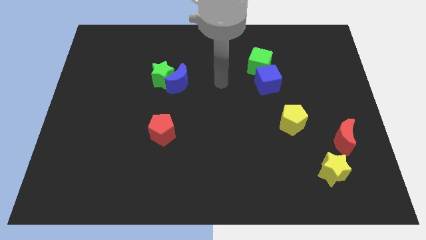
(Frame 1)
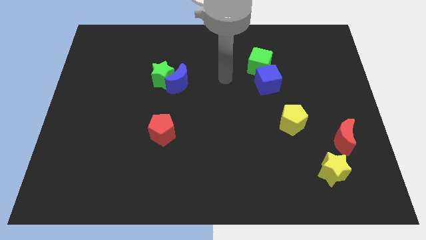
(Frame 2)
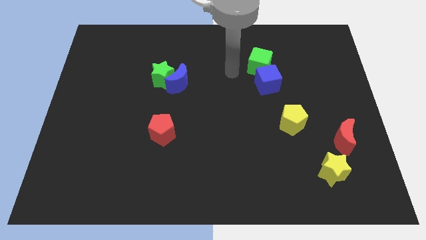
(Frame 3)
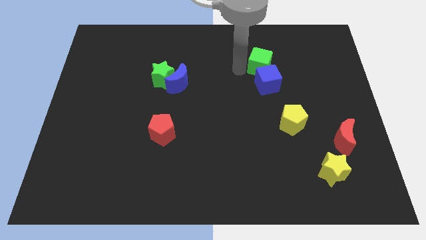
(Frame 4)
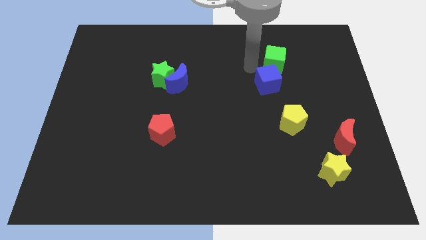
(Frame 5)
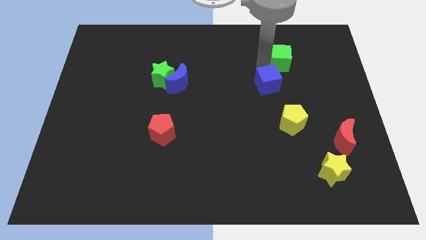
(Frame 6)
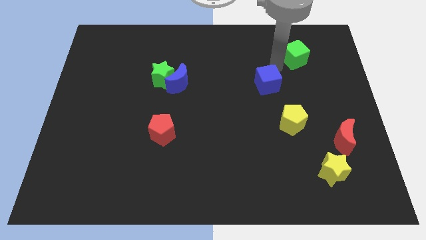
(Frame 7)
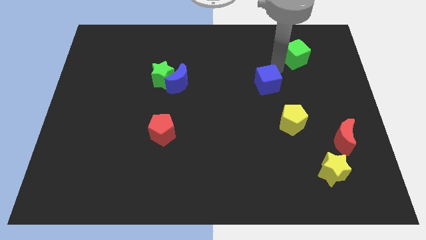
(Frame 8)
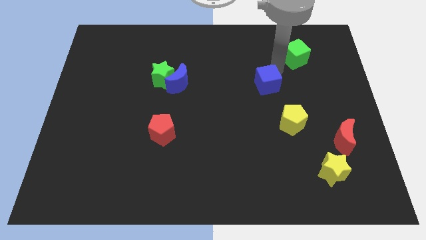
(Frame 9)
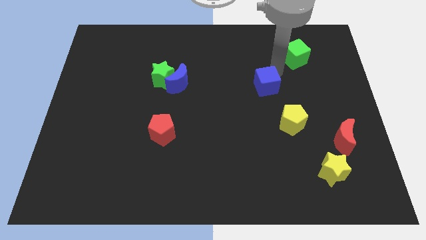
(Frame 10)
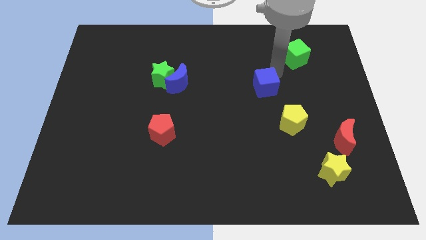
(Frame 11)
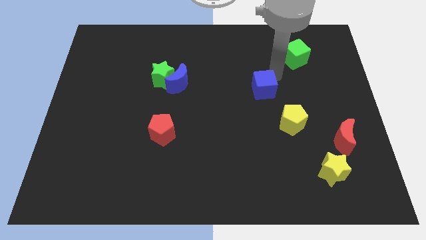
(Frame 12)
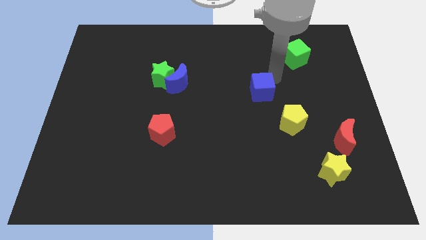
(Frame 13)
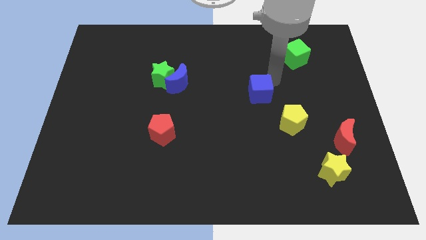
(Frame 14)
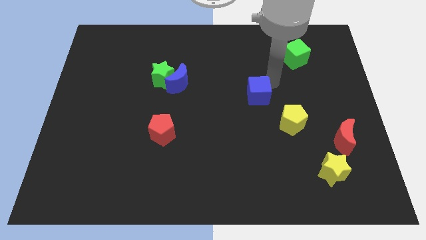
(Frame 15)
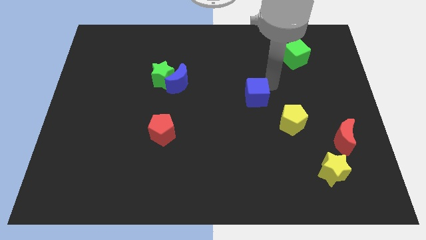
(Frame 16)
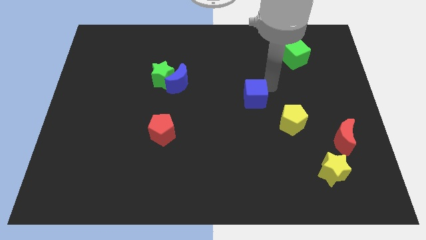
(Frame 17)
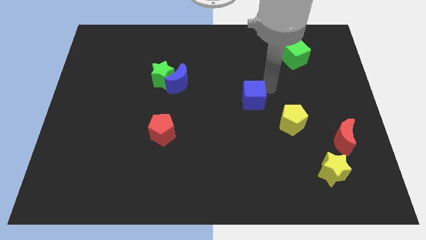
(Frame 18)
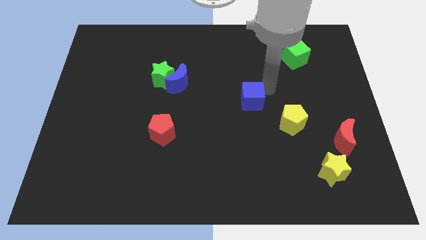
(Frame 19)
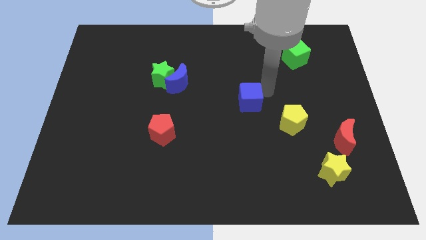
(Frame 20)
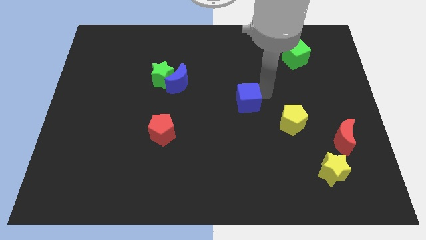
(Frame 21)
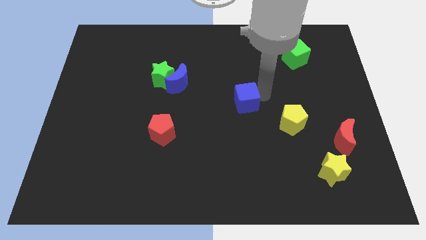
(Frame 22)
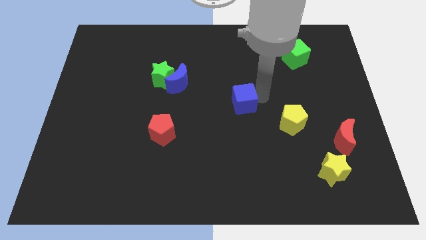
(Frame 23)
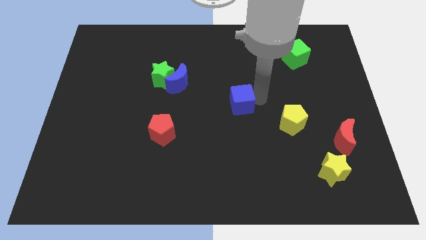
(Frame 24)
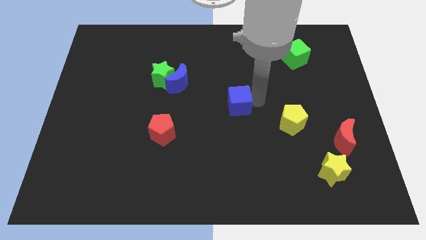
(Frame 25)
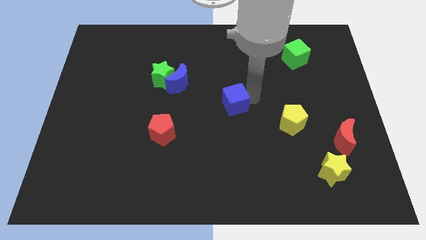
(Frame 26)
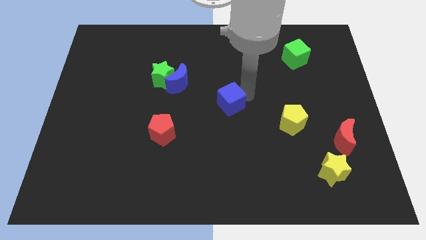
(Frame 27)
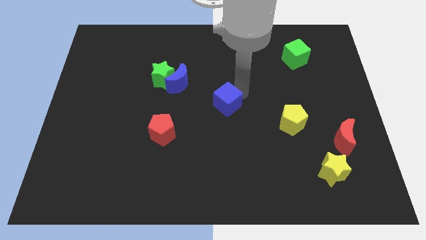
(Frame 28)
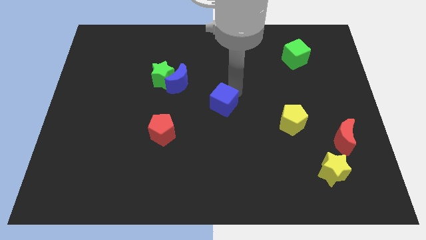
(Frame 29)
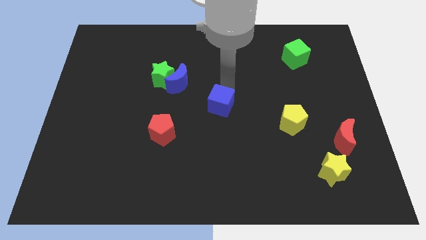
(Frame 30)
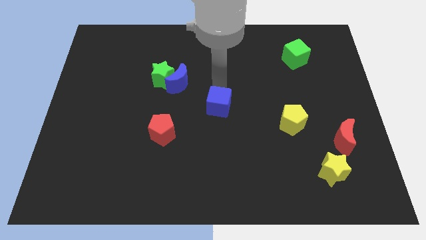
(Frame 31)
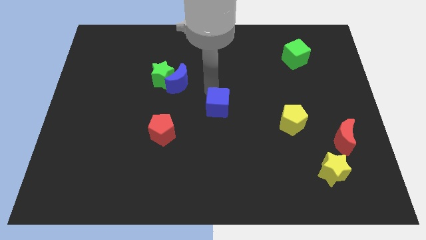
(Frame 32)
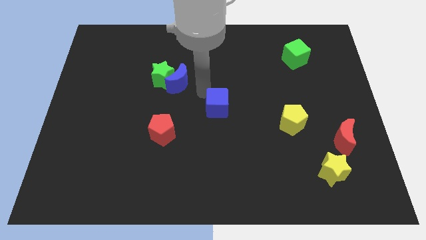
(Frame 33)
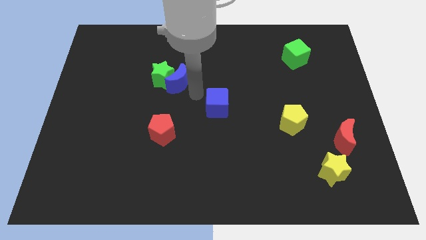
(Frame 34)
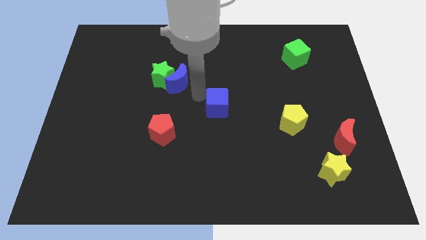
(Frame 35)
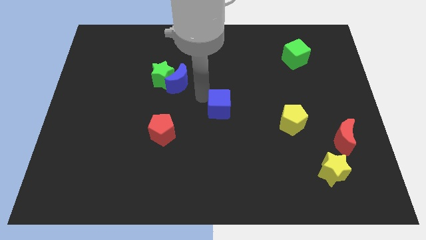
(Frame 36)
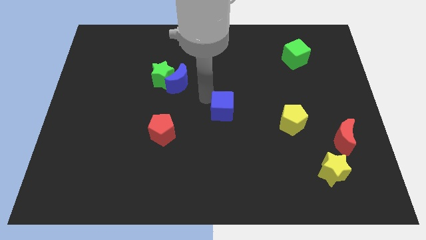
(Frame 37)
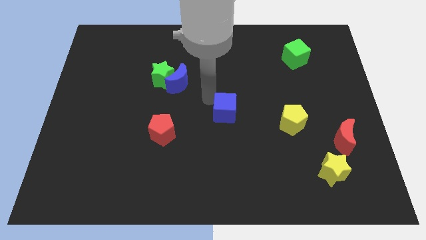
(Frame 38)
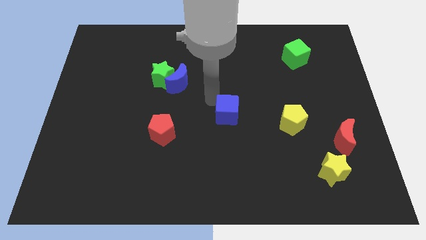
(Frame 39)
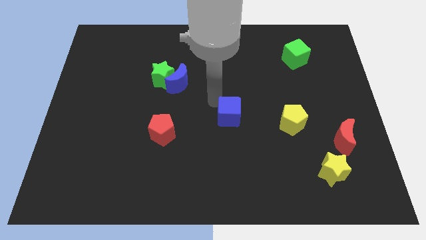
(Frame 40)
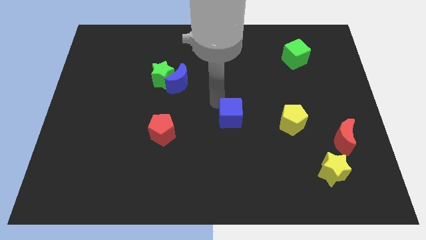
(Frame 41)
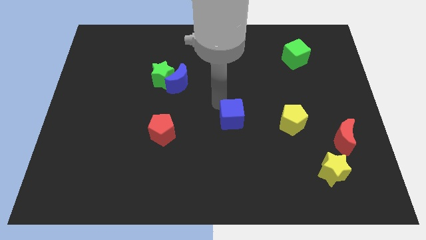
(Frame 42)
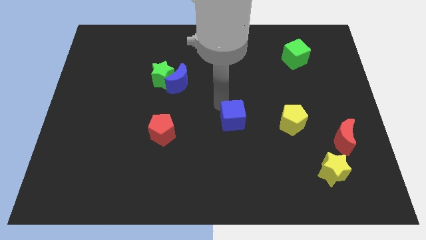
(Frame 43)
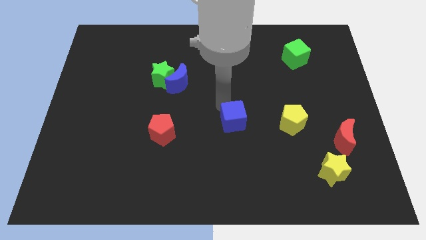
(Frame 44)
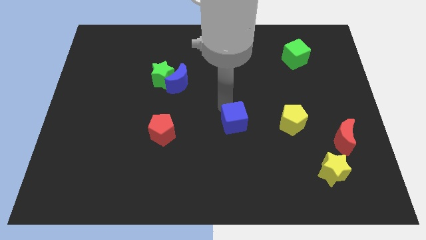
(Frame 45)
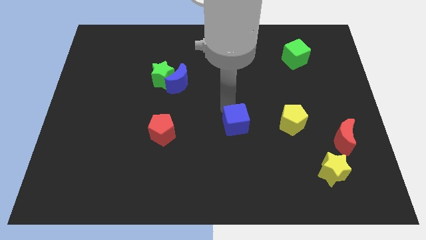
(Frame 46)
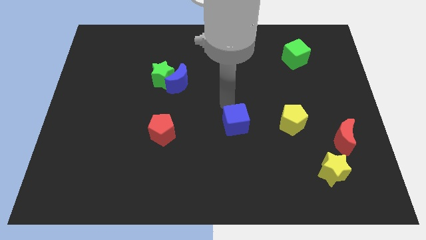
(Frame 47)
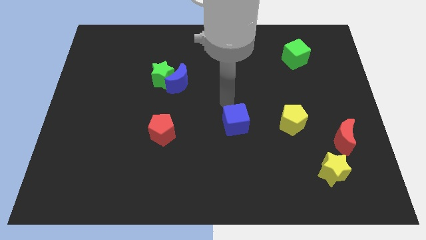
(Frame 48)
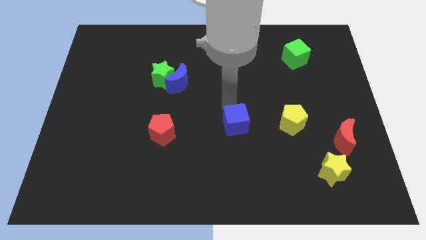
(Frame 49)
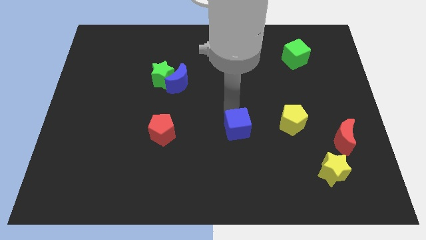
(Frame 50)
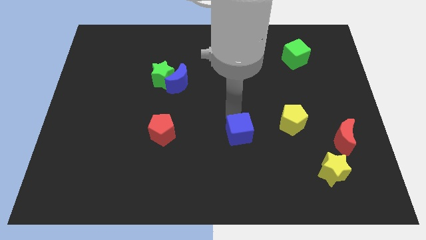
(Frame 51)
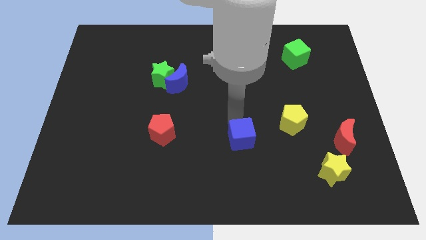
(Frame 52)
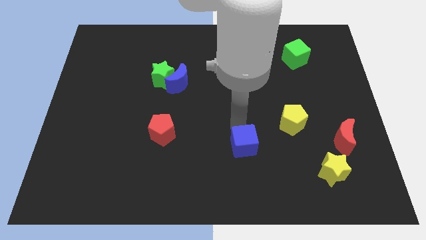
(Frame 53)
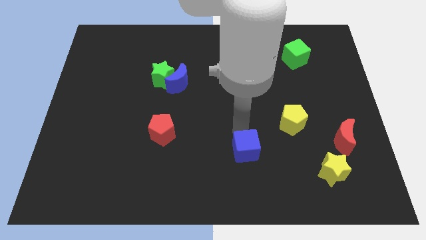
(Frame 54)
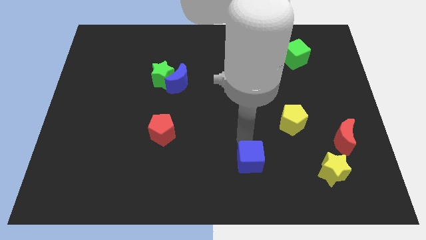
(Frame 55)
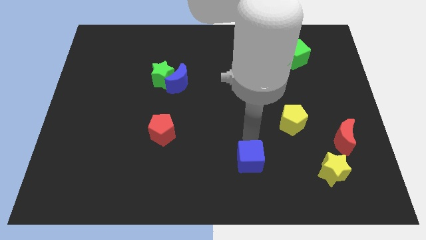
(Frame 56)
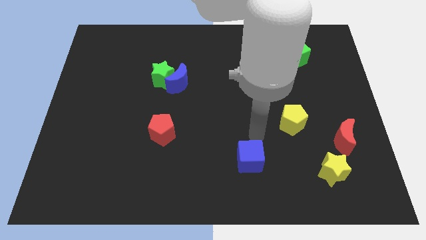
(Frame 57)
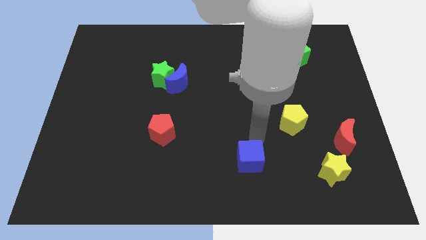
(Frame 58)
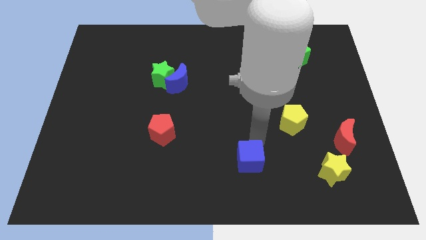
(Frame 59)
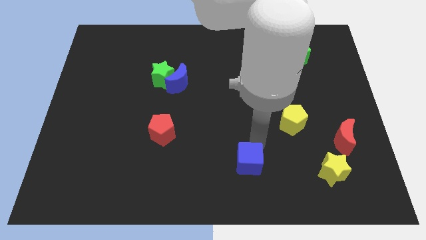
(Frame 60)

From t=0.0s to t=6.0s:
move the blue cube to the bottom

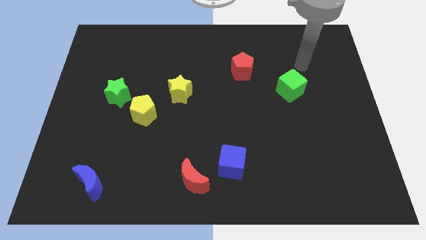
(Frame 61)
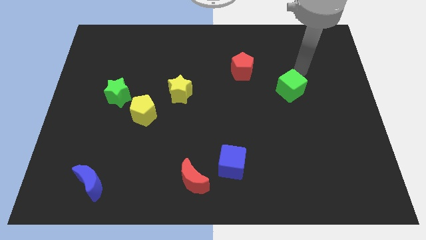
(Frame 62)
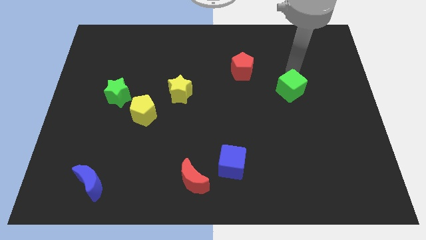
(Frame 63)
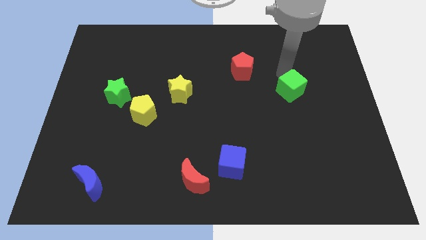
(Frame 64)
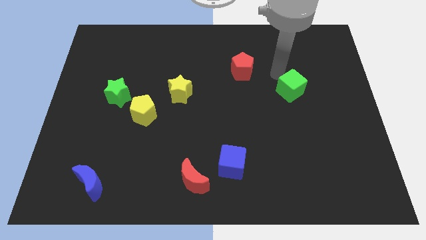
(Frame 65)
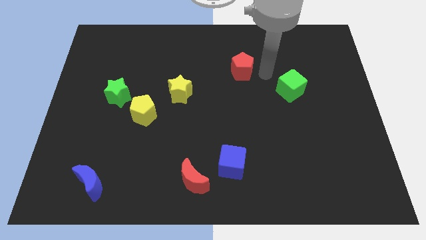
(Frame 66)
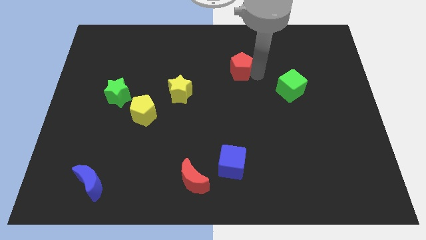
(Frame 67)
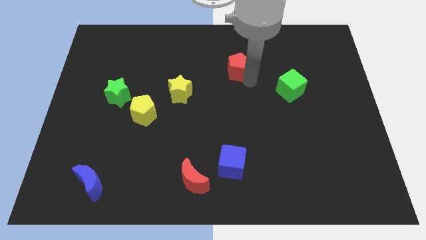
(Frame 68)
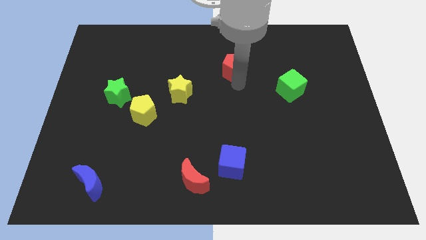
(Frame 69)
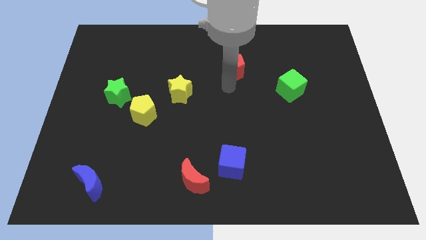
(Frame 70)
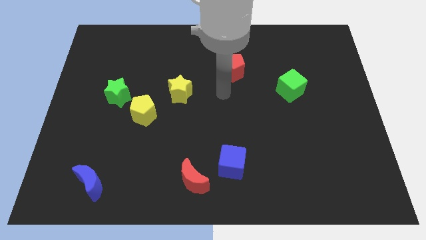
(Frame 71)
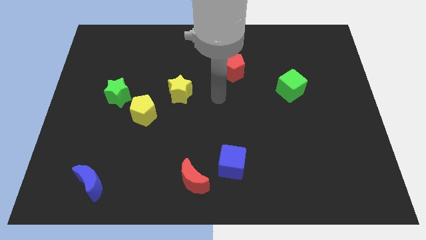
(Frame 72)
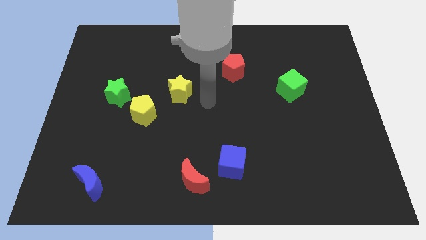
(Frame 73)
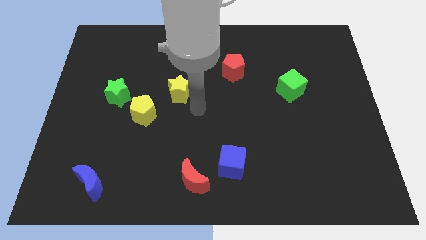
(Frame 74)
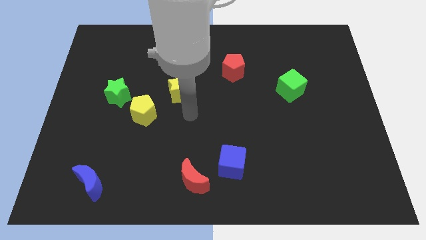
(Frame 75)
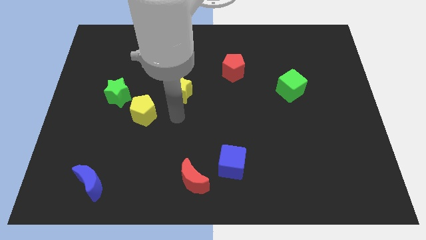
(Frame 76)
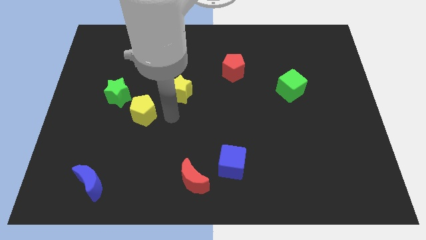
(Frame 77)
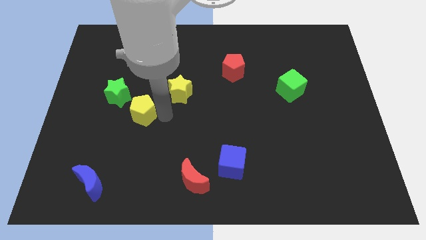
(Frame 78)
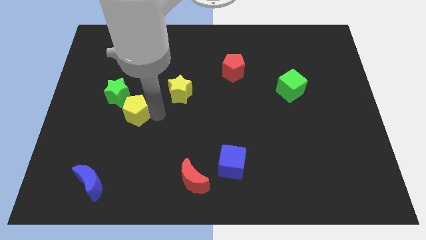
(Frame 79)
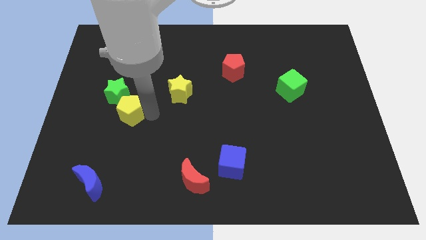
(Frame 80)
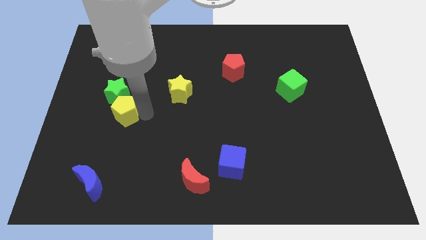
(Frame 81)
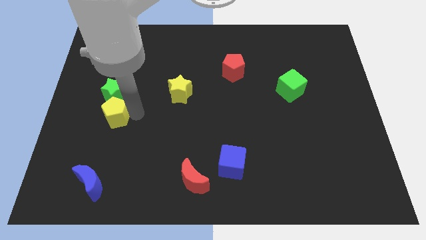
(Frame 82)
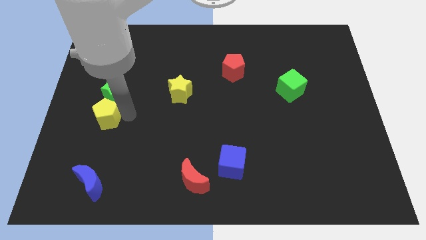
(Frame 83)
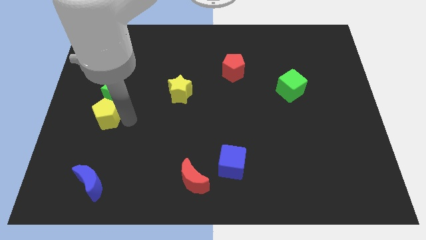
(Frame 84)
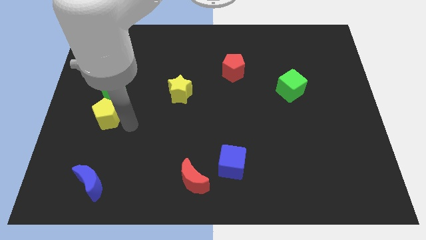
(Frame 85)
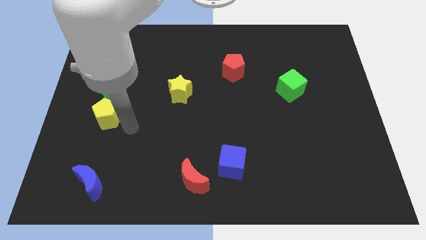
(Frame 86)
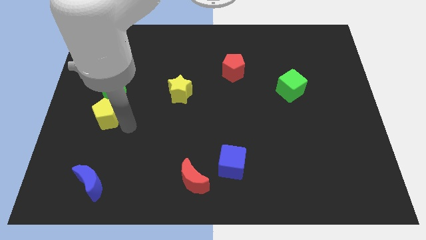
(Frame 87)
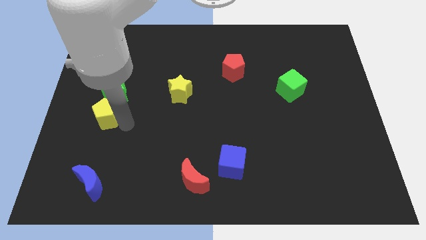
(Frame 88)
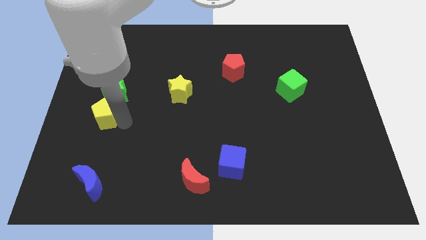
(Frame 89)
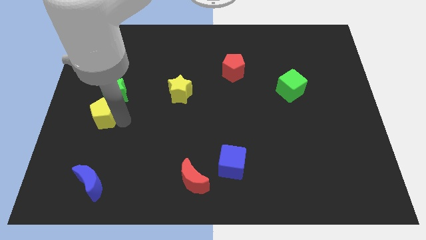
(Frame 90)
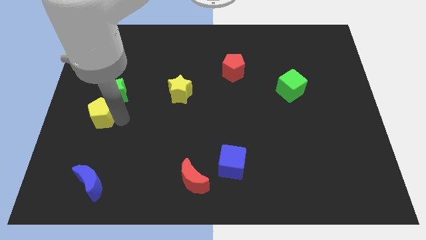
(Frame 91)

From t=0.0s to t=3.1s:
put the yellow pentagon to the left side of the board
